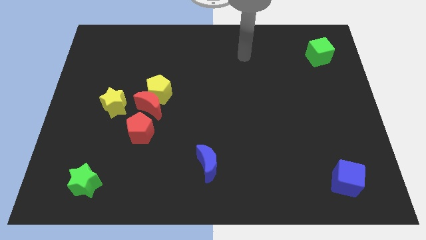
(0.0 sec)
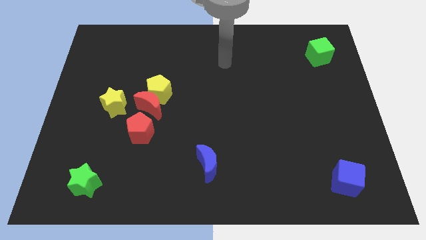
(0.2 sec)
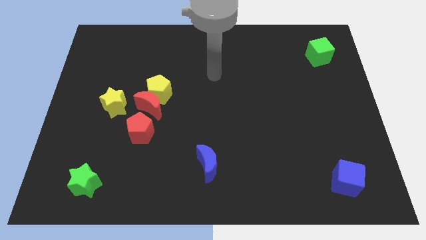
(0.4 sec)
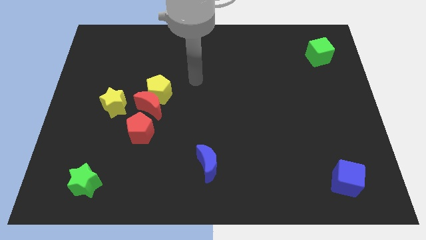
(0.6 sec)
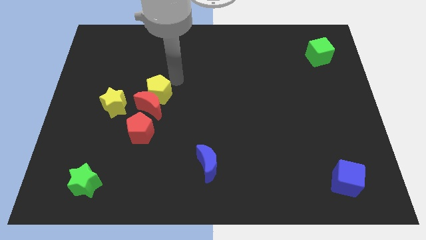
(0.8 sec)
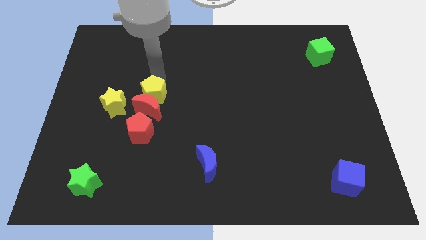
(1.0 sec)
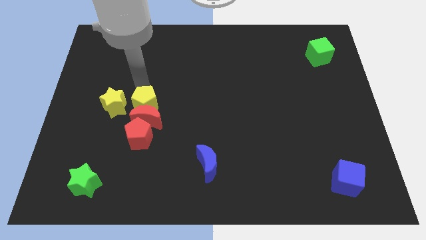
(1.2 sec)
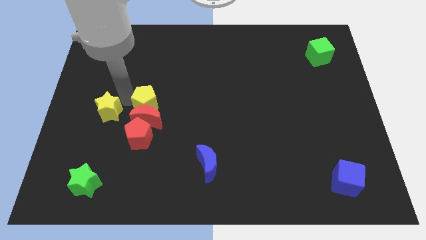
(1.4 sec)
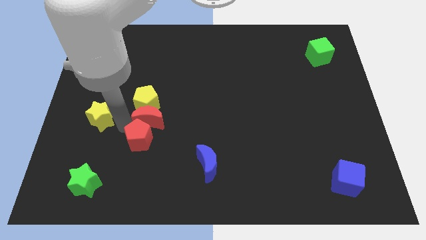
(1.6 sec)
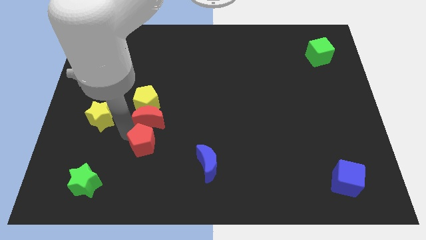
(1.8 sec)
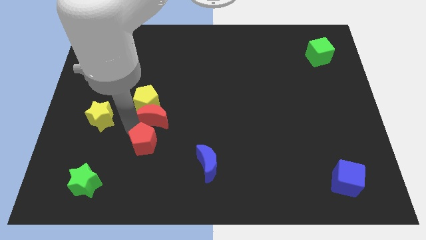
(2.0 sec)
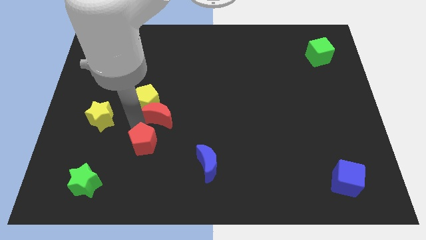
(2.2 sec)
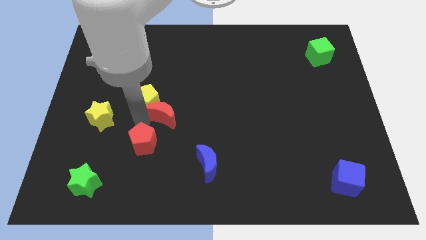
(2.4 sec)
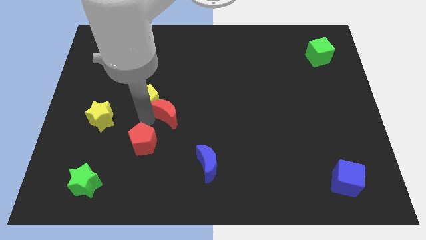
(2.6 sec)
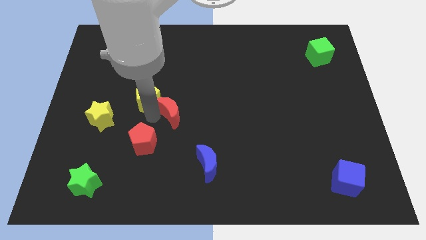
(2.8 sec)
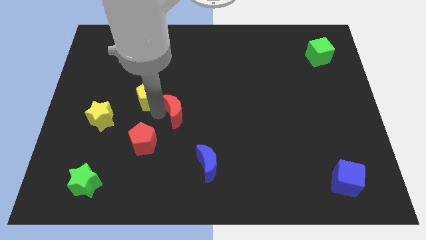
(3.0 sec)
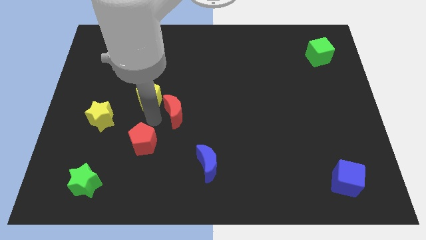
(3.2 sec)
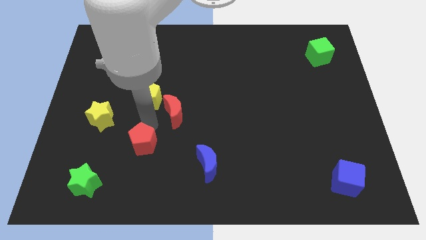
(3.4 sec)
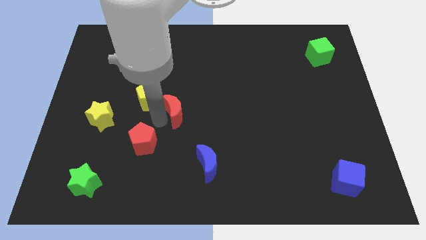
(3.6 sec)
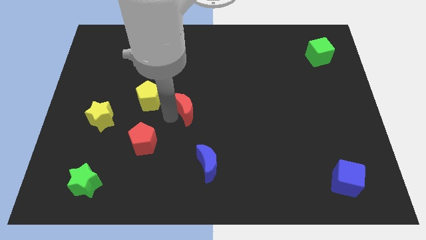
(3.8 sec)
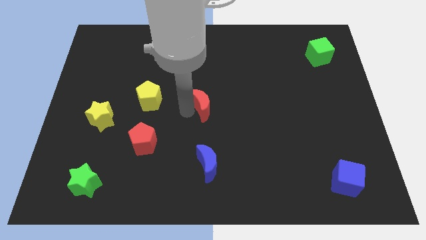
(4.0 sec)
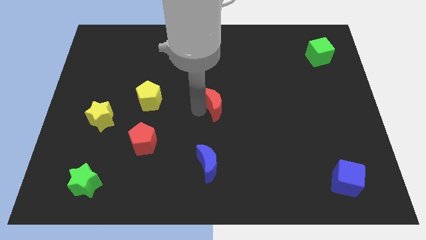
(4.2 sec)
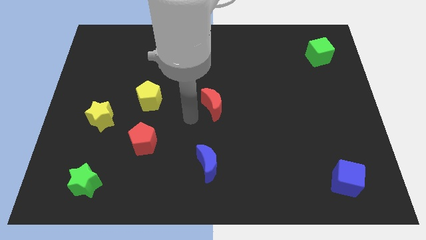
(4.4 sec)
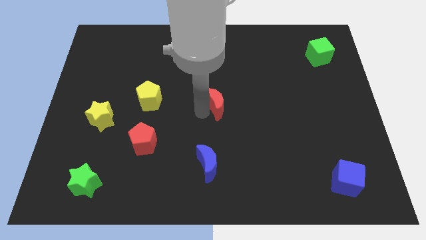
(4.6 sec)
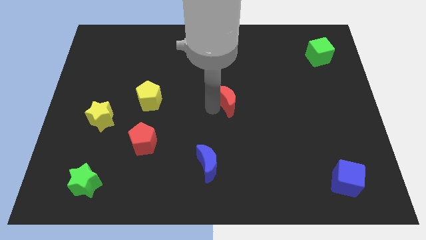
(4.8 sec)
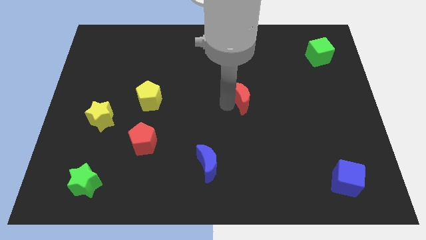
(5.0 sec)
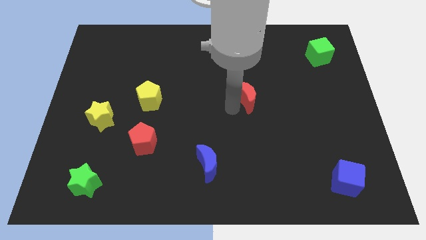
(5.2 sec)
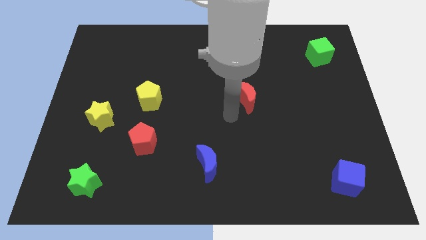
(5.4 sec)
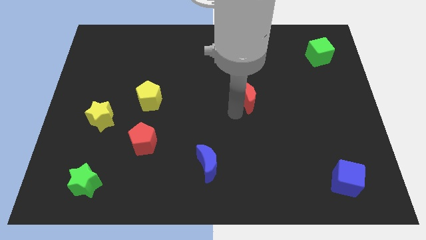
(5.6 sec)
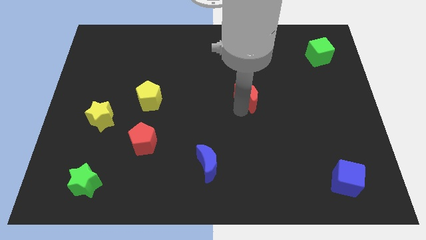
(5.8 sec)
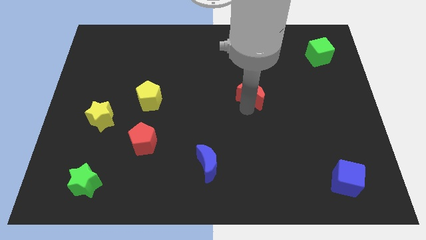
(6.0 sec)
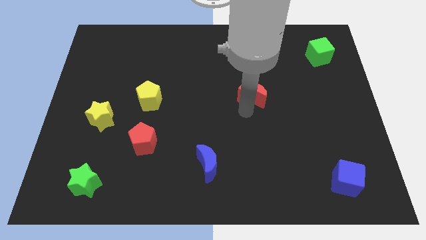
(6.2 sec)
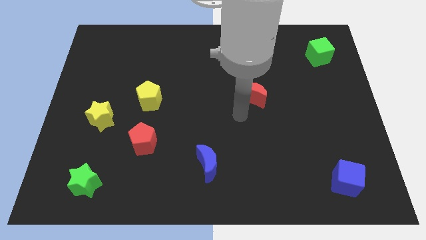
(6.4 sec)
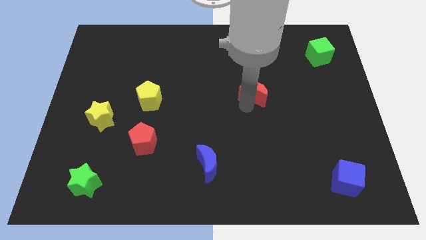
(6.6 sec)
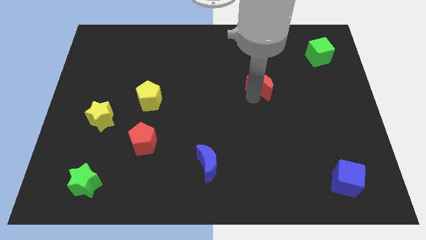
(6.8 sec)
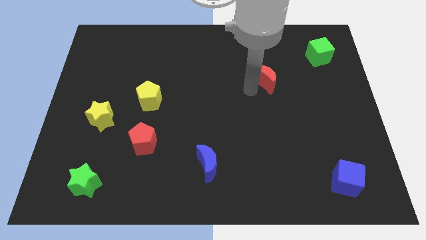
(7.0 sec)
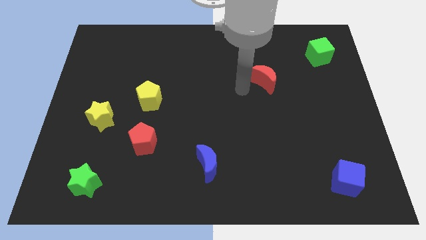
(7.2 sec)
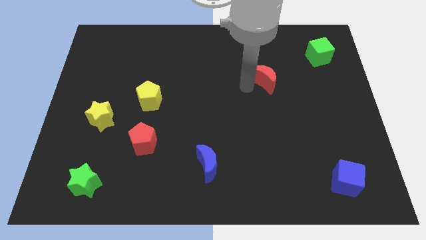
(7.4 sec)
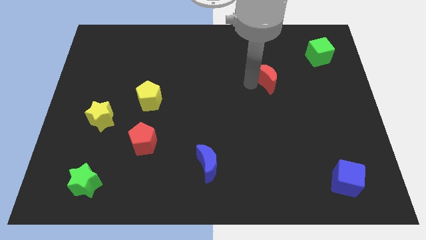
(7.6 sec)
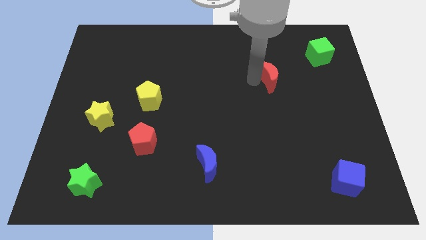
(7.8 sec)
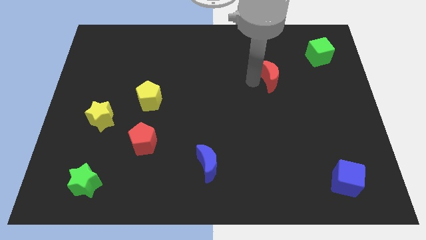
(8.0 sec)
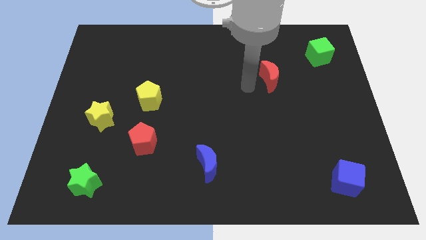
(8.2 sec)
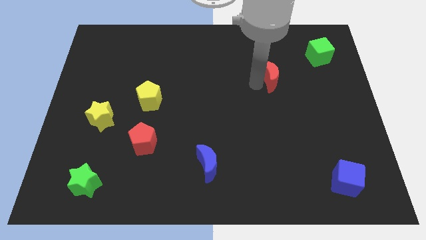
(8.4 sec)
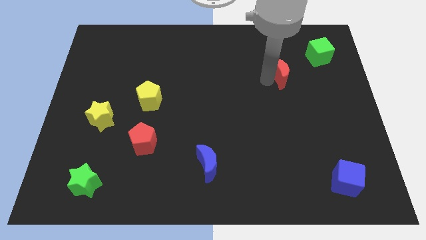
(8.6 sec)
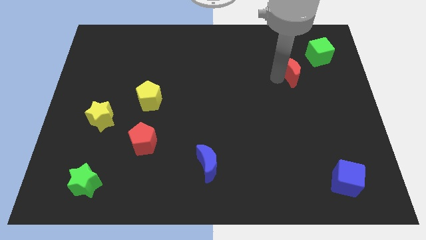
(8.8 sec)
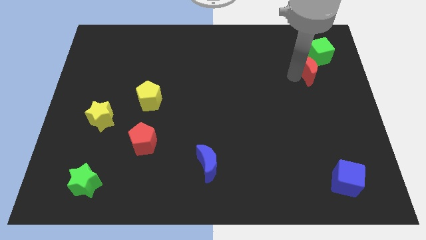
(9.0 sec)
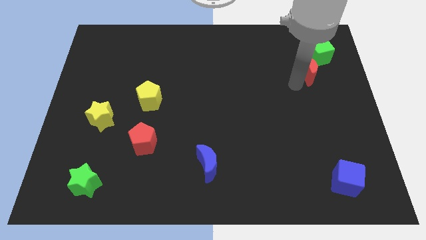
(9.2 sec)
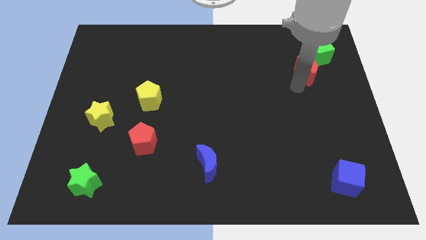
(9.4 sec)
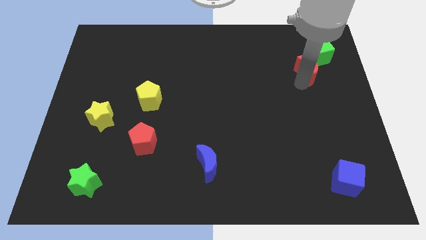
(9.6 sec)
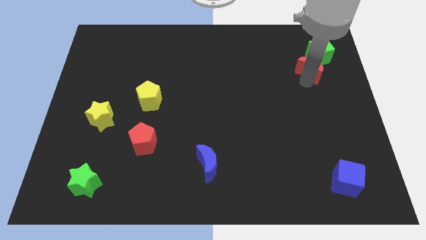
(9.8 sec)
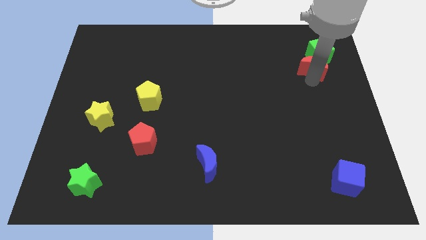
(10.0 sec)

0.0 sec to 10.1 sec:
push the red moon next to the green cube

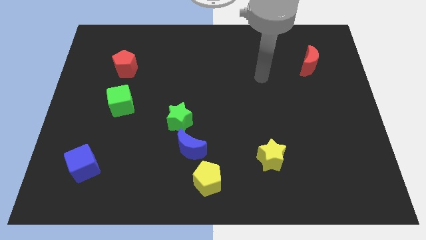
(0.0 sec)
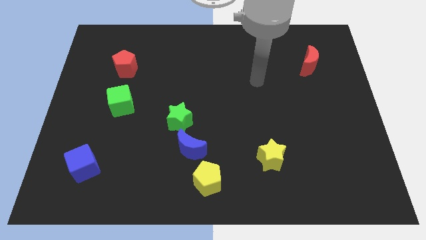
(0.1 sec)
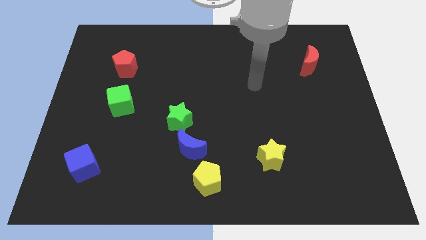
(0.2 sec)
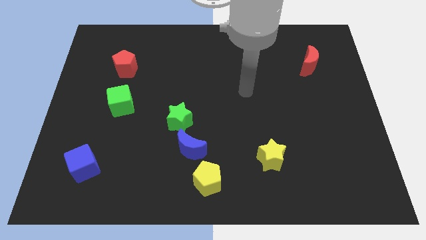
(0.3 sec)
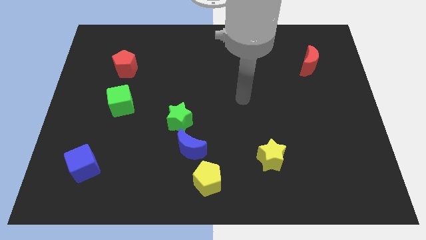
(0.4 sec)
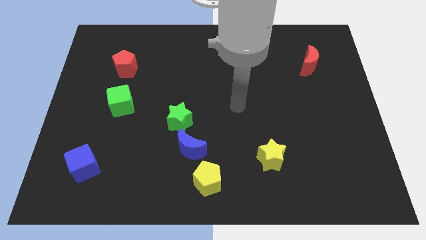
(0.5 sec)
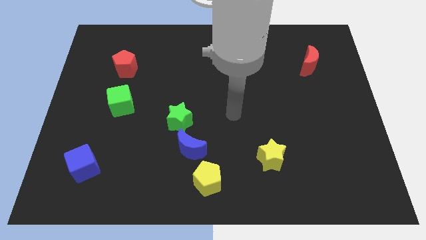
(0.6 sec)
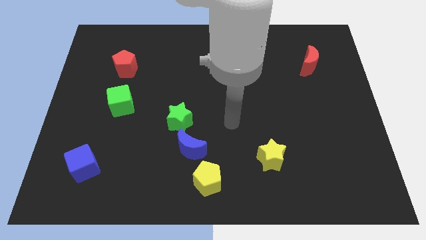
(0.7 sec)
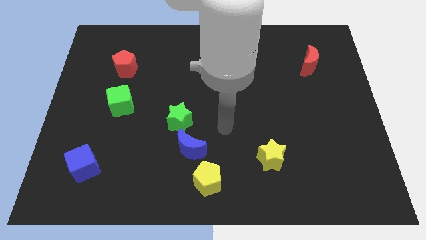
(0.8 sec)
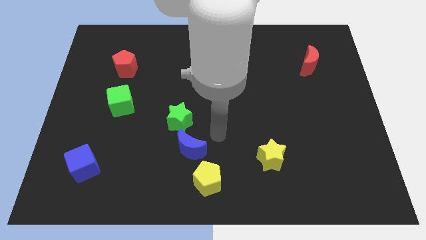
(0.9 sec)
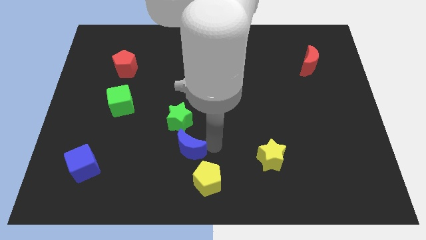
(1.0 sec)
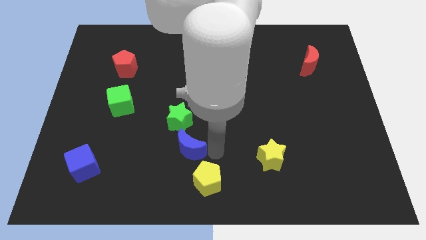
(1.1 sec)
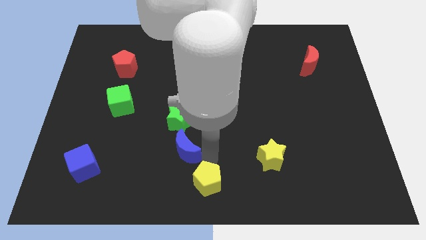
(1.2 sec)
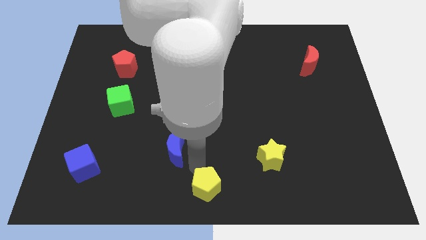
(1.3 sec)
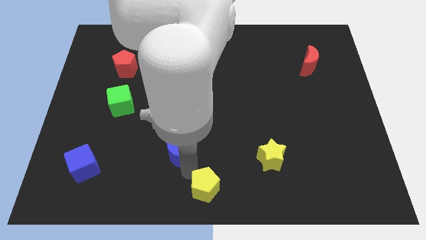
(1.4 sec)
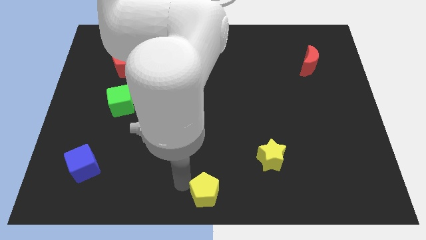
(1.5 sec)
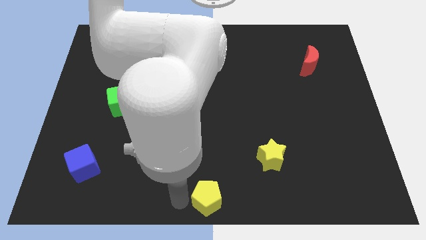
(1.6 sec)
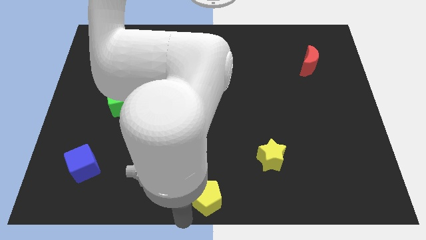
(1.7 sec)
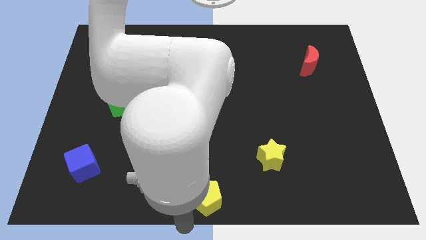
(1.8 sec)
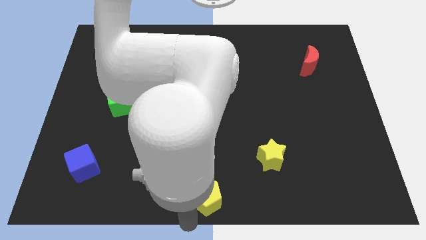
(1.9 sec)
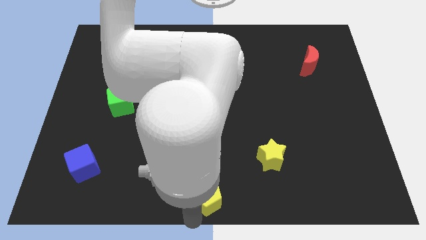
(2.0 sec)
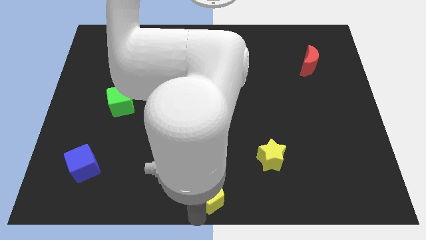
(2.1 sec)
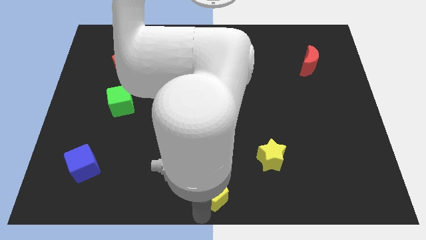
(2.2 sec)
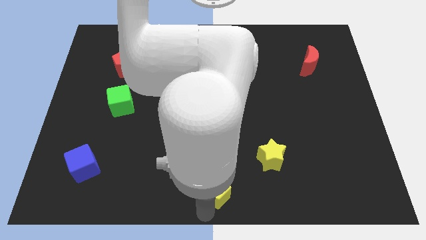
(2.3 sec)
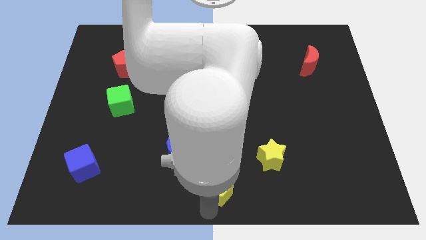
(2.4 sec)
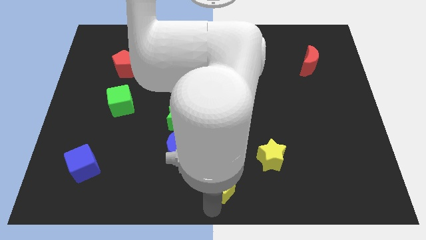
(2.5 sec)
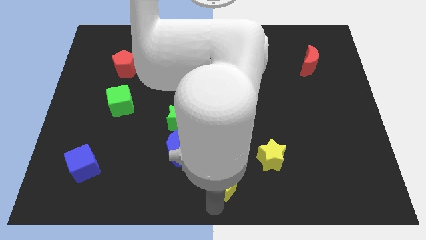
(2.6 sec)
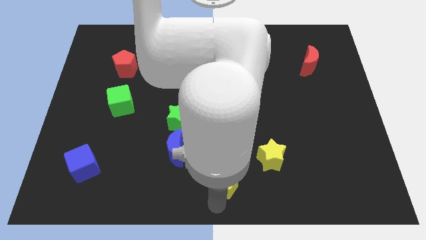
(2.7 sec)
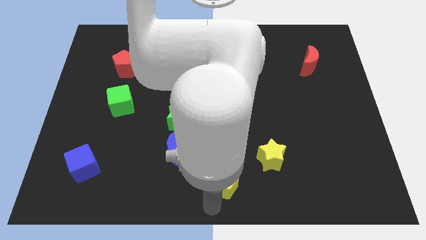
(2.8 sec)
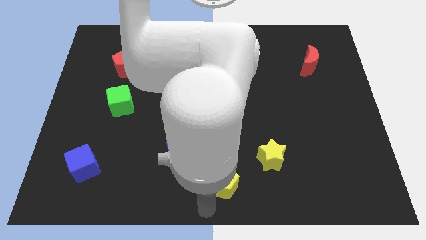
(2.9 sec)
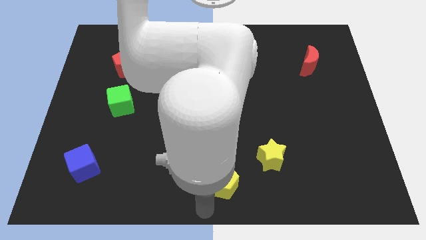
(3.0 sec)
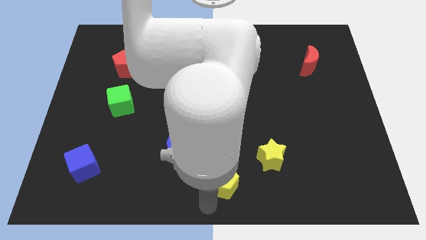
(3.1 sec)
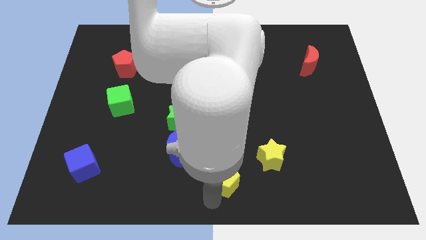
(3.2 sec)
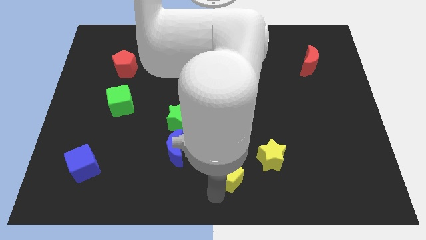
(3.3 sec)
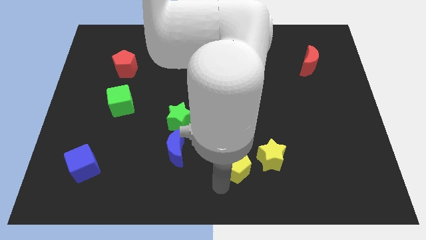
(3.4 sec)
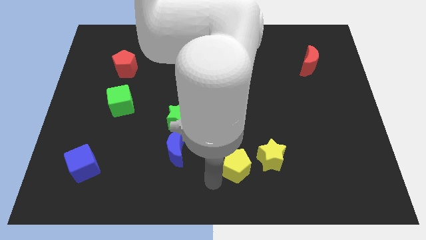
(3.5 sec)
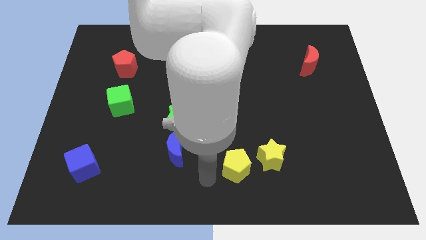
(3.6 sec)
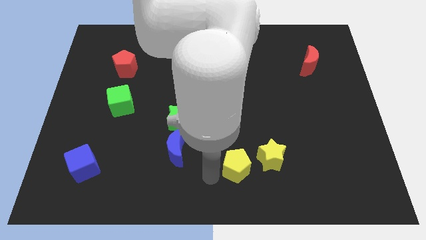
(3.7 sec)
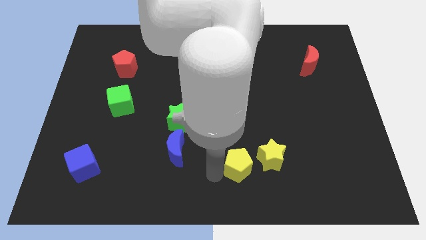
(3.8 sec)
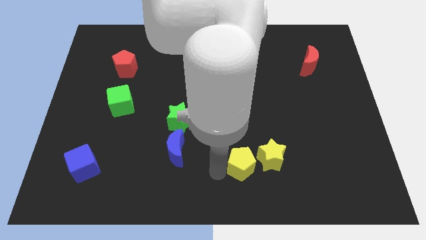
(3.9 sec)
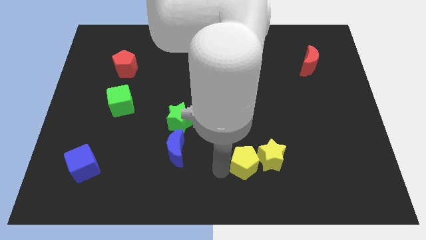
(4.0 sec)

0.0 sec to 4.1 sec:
slide the yellow pentagon to the yellow star
